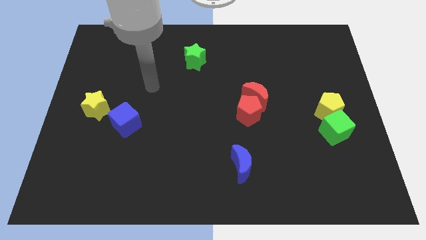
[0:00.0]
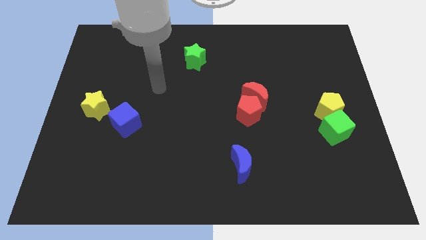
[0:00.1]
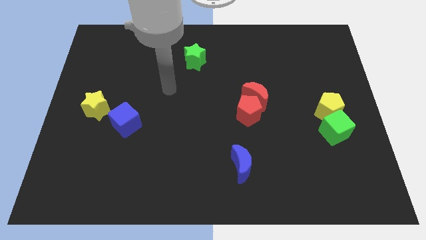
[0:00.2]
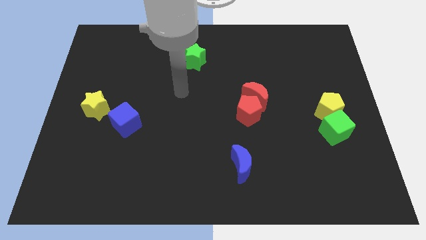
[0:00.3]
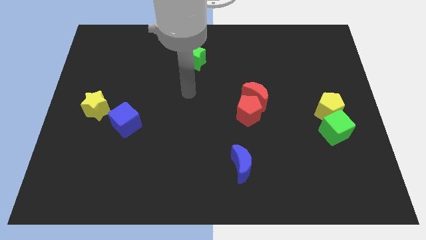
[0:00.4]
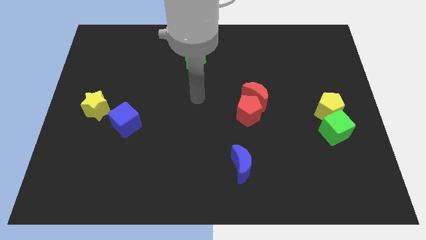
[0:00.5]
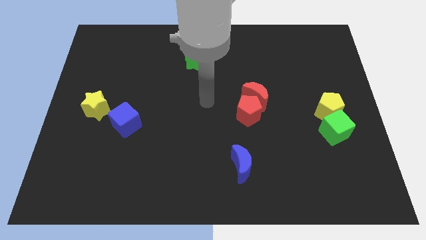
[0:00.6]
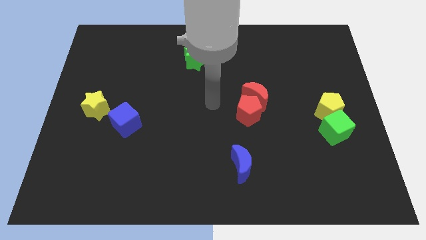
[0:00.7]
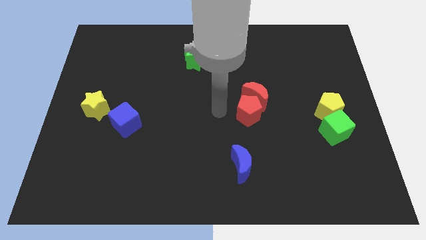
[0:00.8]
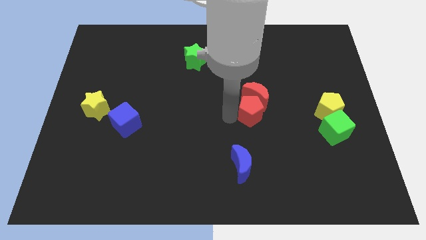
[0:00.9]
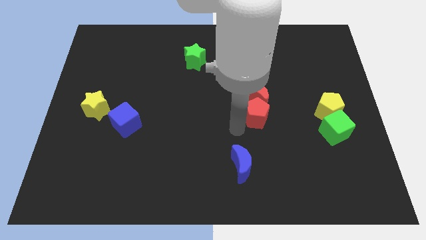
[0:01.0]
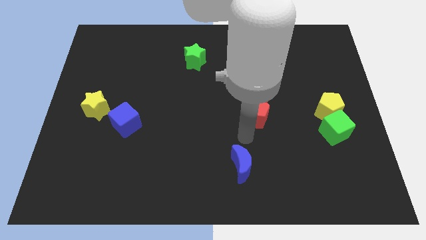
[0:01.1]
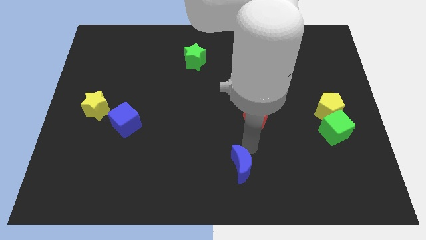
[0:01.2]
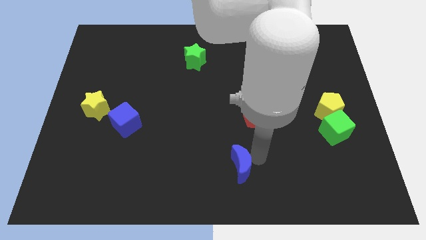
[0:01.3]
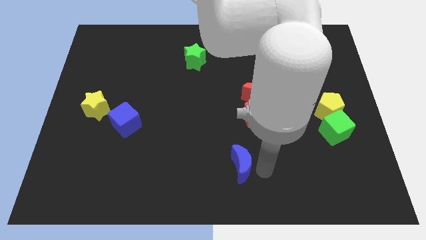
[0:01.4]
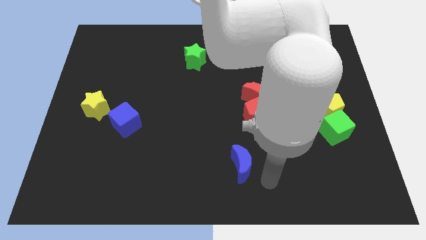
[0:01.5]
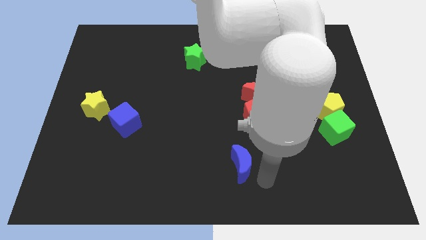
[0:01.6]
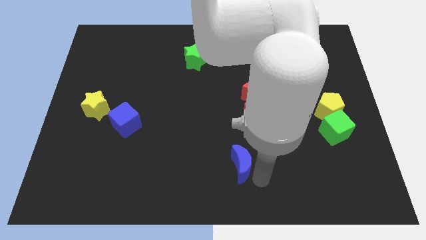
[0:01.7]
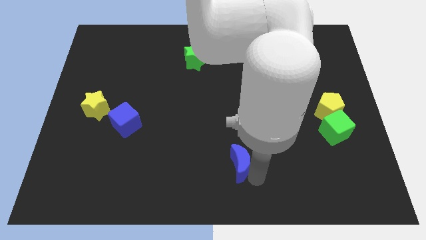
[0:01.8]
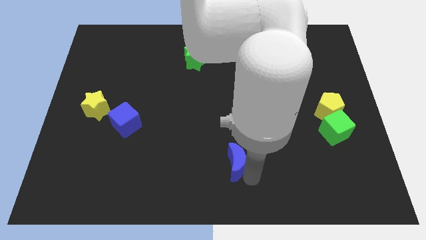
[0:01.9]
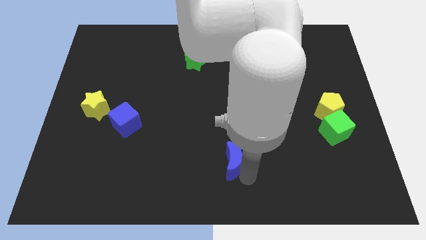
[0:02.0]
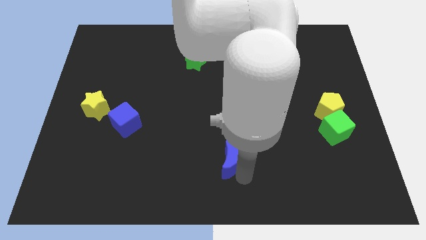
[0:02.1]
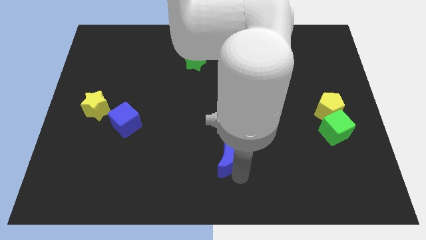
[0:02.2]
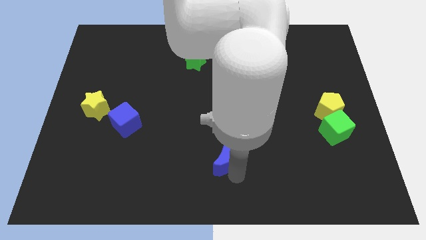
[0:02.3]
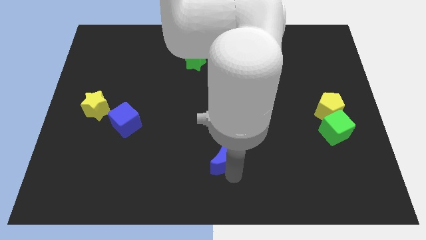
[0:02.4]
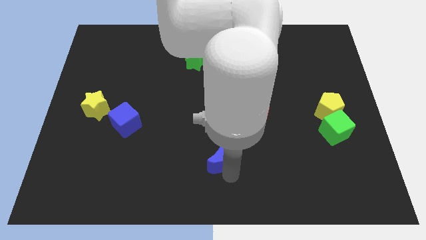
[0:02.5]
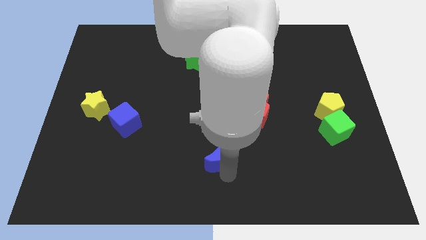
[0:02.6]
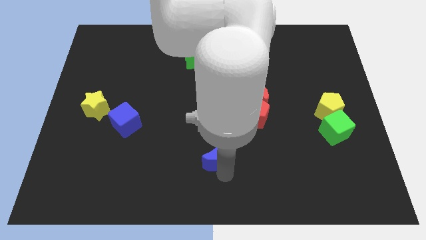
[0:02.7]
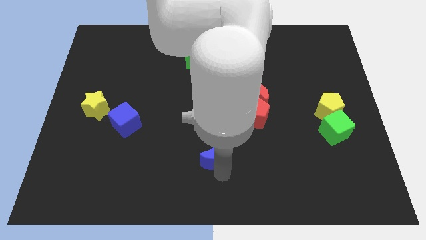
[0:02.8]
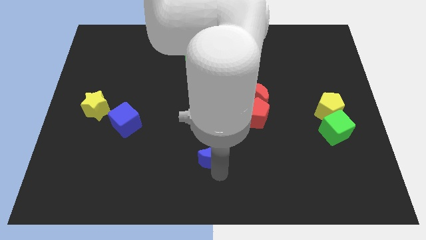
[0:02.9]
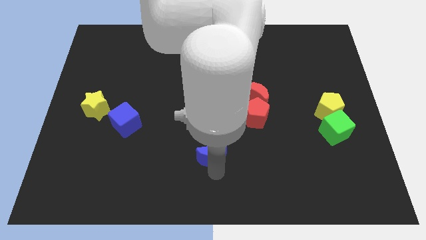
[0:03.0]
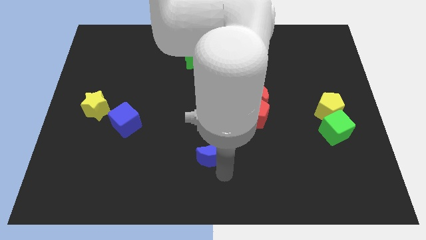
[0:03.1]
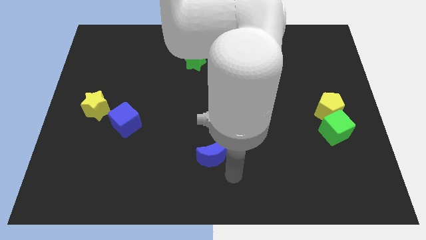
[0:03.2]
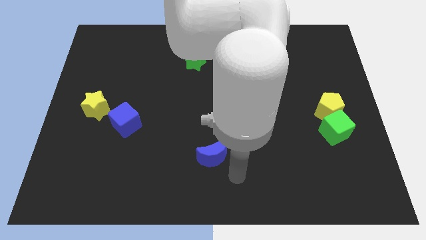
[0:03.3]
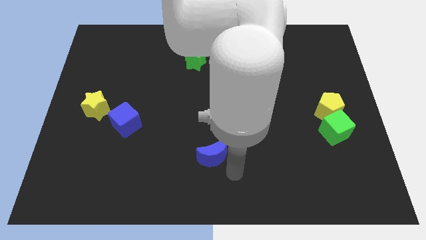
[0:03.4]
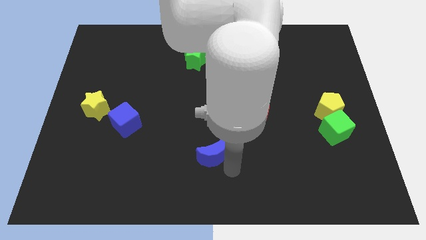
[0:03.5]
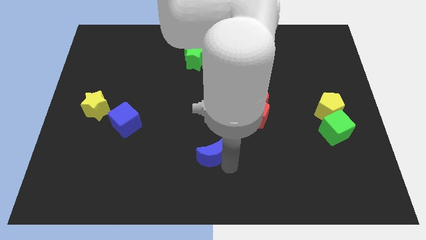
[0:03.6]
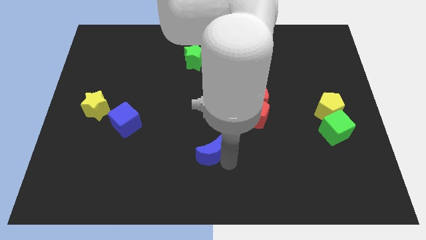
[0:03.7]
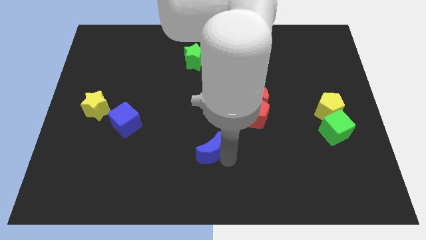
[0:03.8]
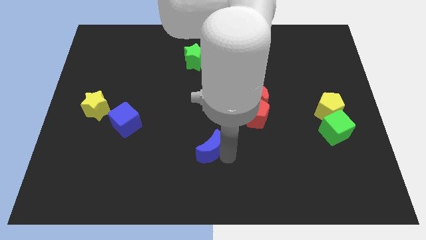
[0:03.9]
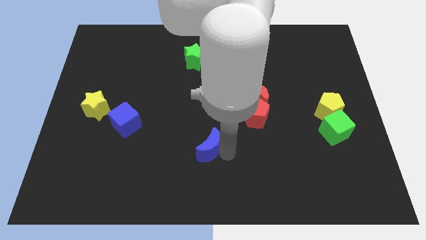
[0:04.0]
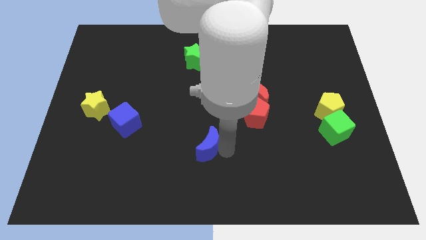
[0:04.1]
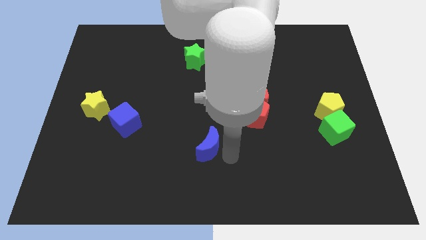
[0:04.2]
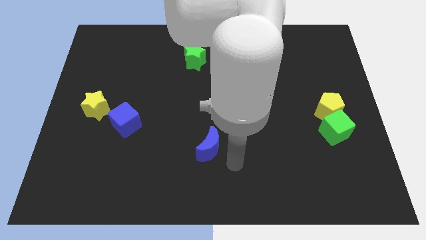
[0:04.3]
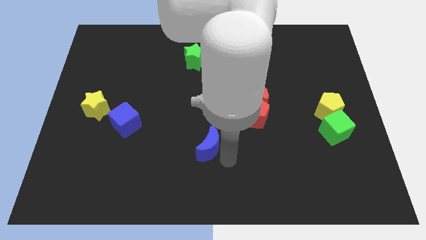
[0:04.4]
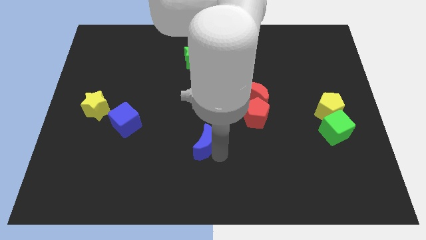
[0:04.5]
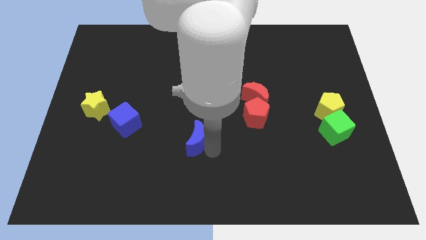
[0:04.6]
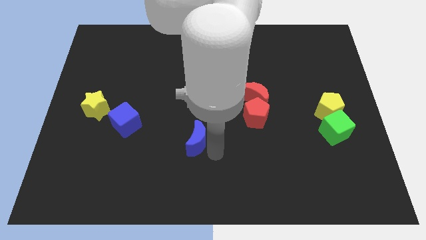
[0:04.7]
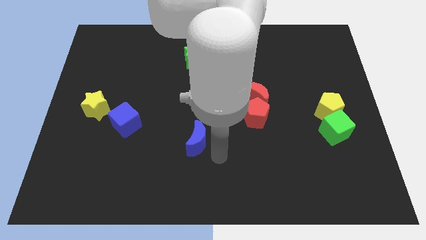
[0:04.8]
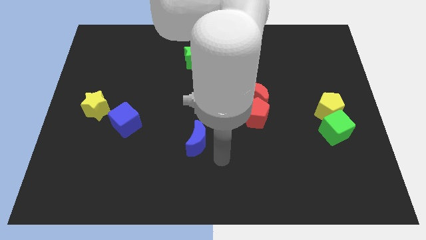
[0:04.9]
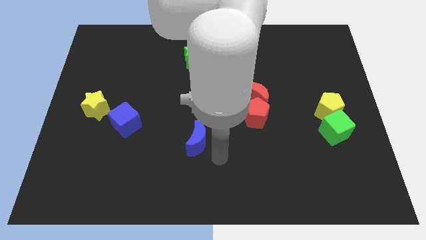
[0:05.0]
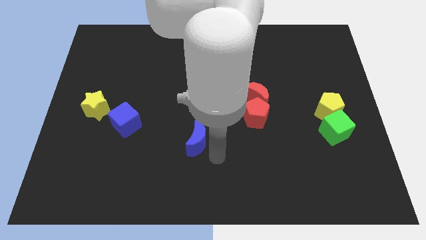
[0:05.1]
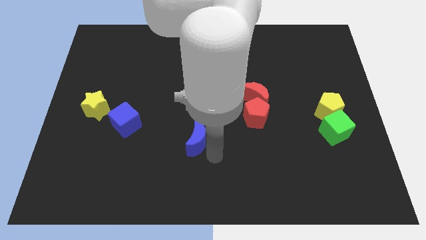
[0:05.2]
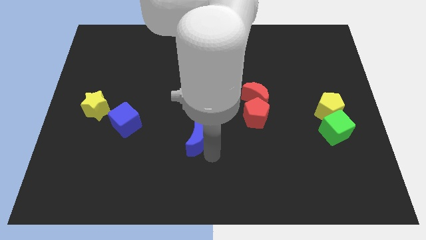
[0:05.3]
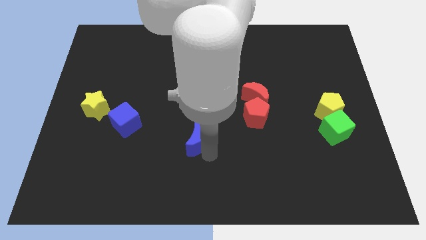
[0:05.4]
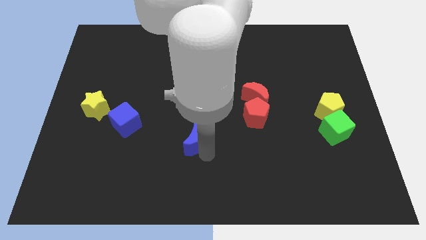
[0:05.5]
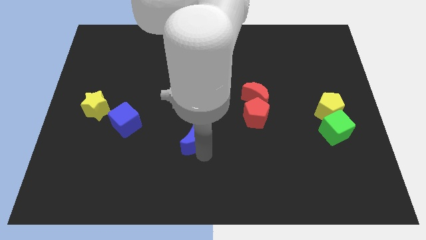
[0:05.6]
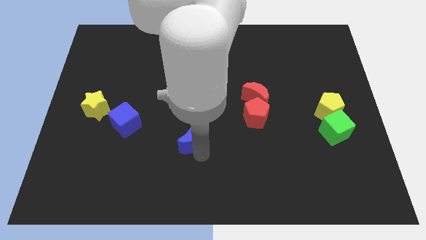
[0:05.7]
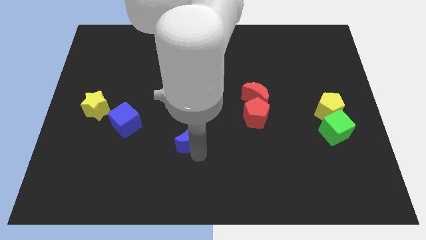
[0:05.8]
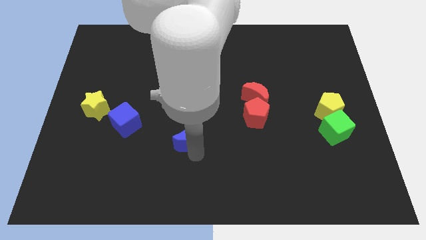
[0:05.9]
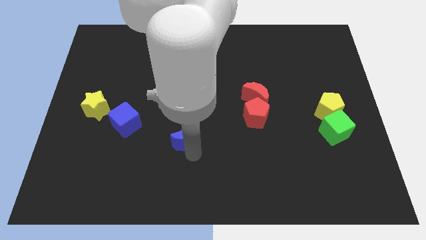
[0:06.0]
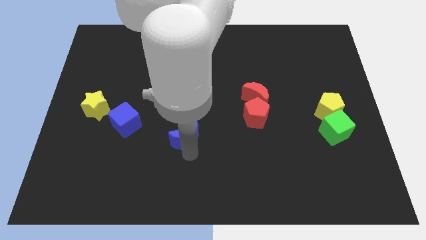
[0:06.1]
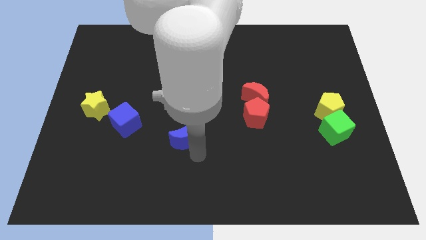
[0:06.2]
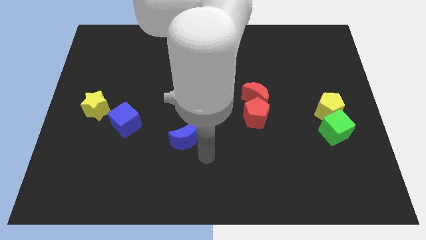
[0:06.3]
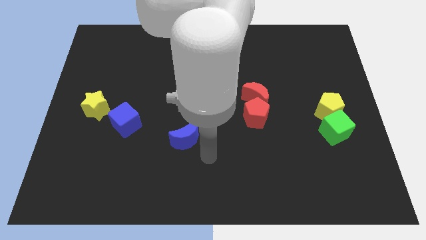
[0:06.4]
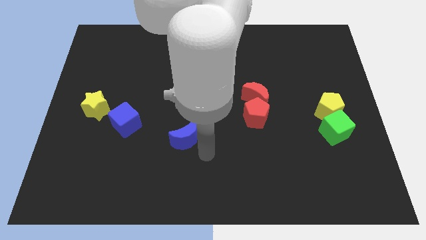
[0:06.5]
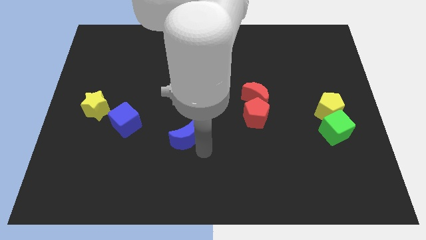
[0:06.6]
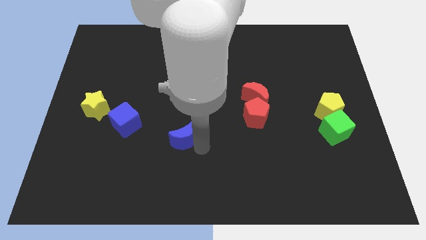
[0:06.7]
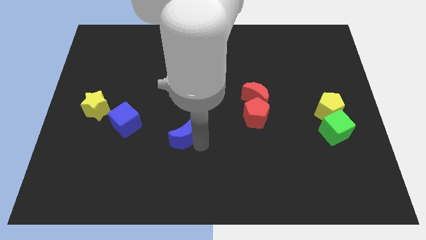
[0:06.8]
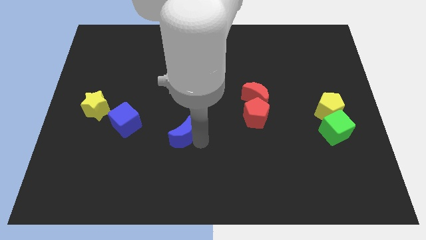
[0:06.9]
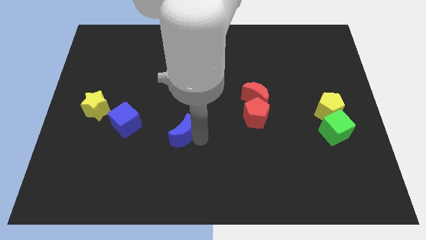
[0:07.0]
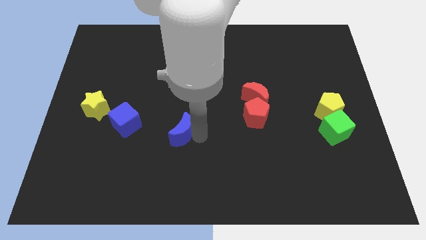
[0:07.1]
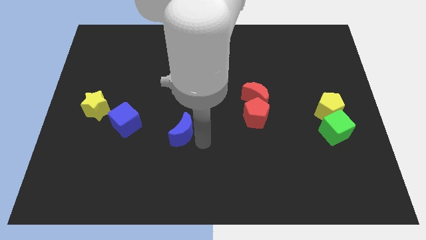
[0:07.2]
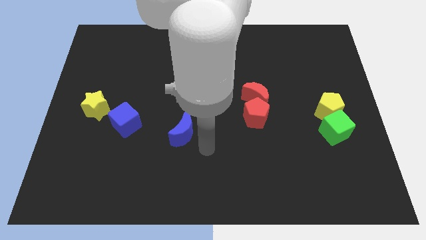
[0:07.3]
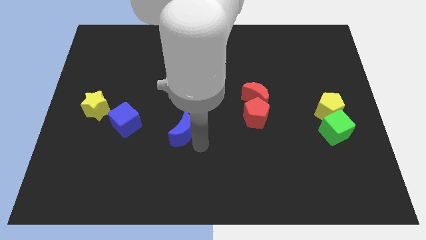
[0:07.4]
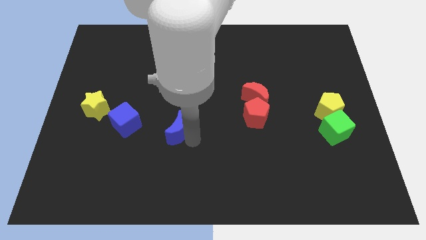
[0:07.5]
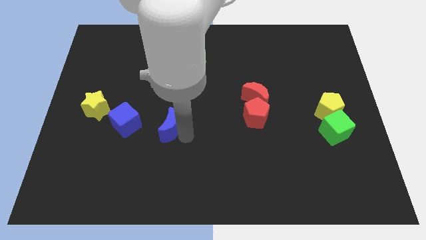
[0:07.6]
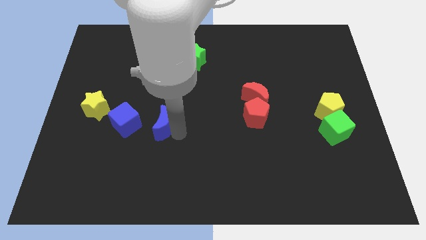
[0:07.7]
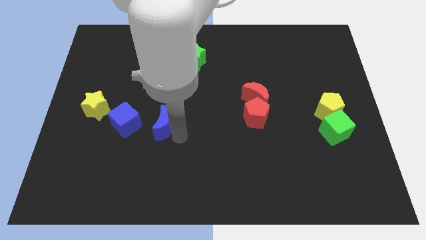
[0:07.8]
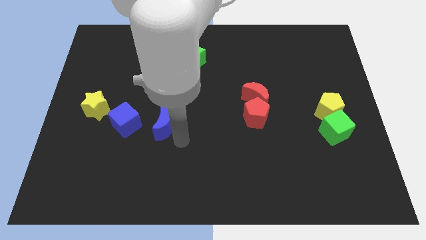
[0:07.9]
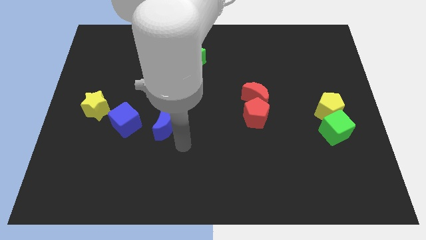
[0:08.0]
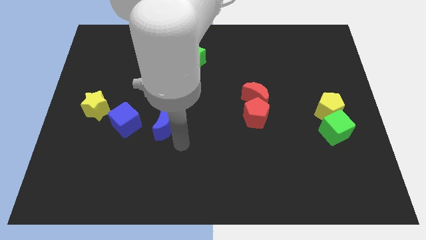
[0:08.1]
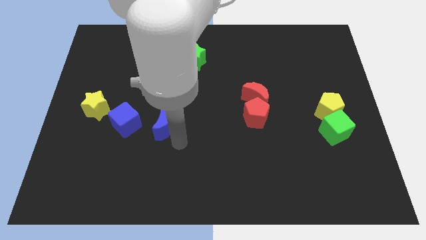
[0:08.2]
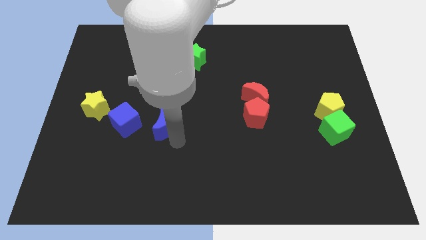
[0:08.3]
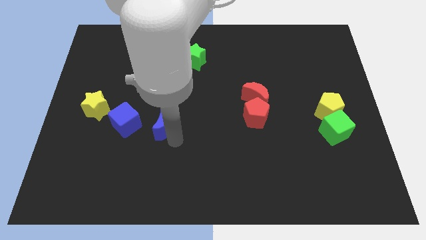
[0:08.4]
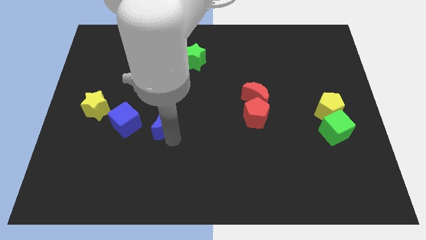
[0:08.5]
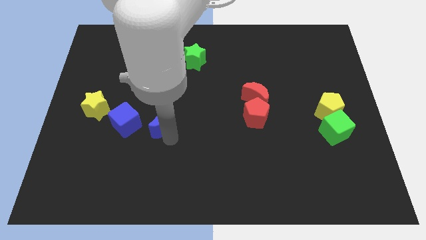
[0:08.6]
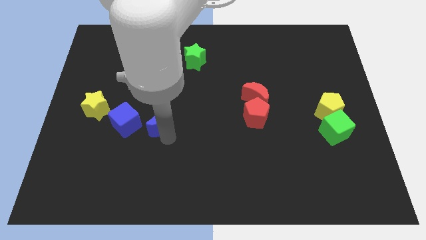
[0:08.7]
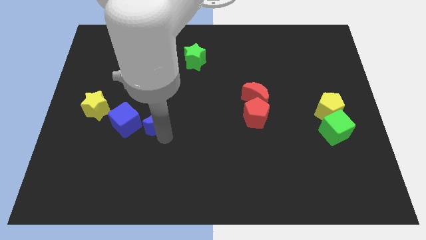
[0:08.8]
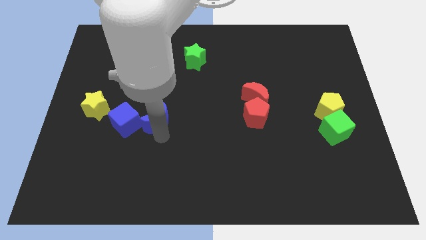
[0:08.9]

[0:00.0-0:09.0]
move the blue moon right of the yellow star
